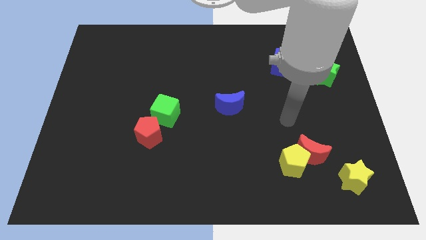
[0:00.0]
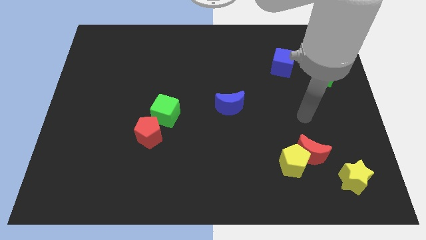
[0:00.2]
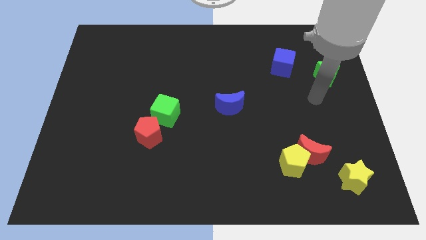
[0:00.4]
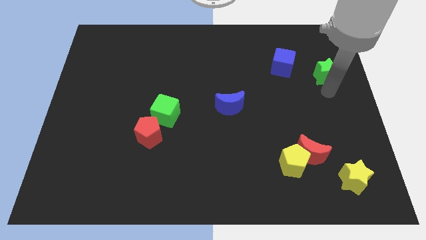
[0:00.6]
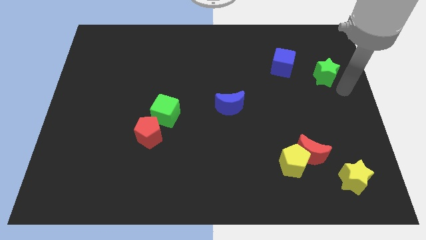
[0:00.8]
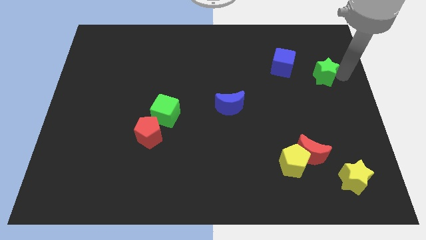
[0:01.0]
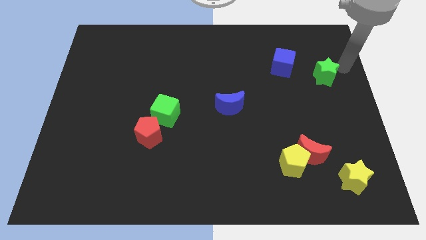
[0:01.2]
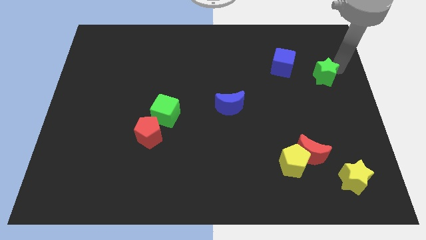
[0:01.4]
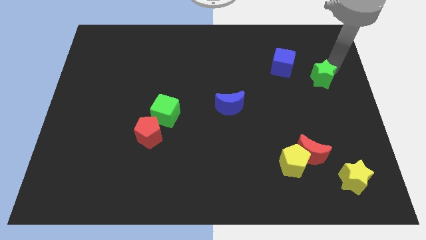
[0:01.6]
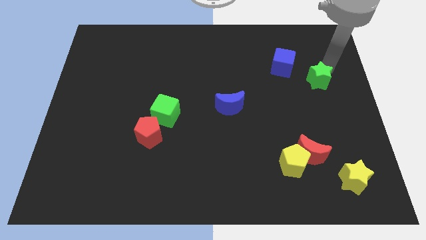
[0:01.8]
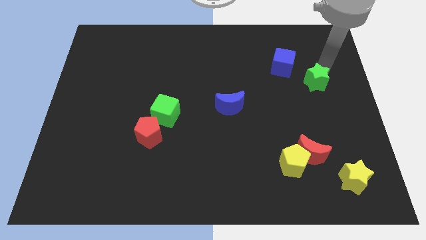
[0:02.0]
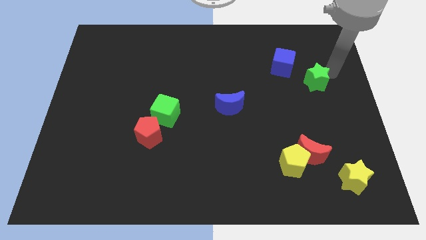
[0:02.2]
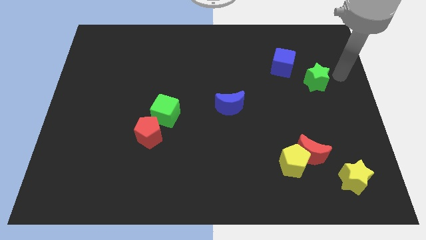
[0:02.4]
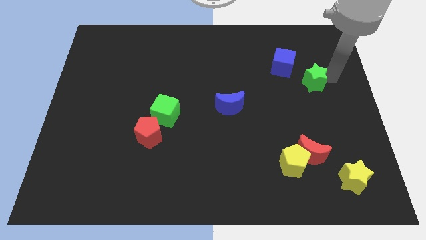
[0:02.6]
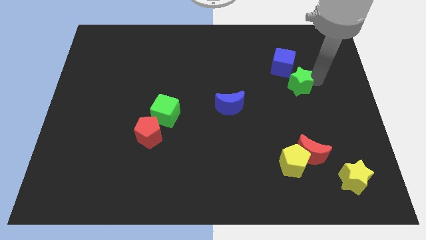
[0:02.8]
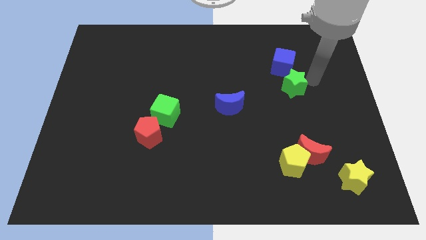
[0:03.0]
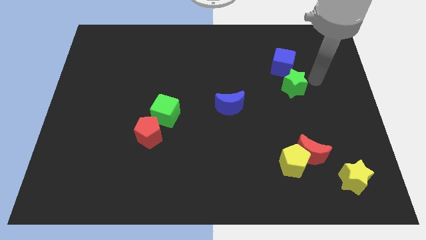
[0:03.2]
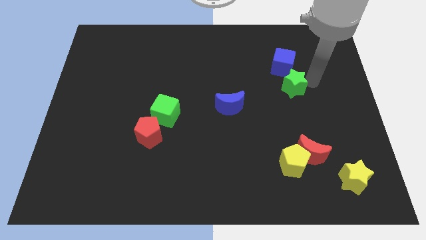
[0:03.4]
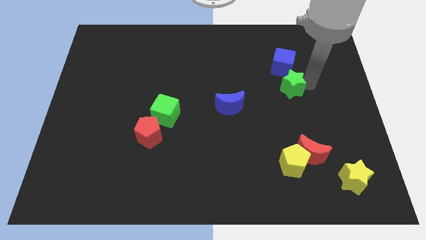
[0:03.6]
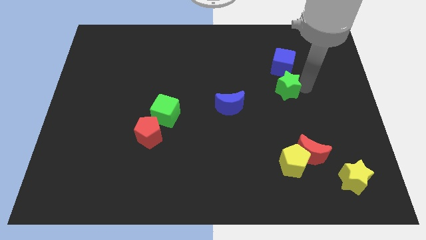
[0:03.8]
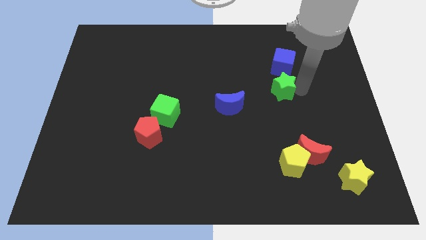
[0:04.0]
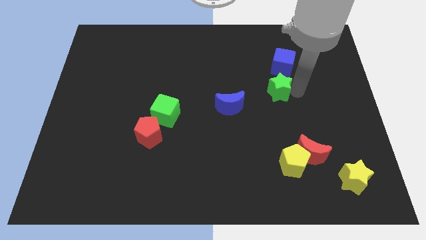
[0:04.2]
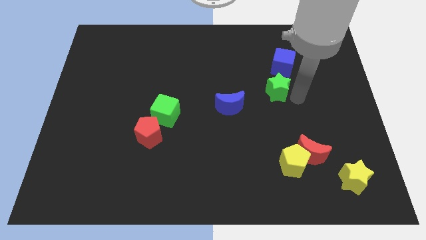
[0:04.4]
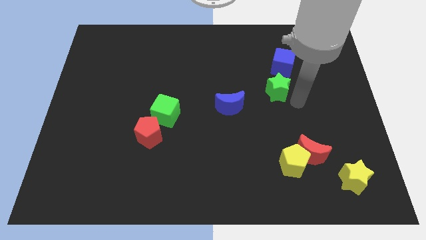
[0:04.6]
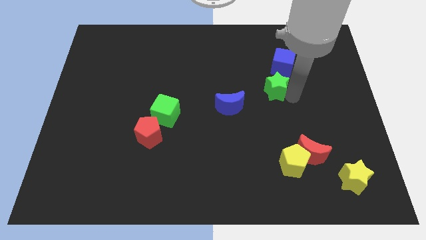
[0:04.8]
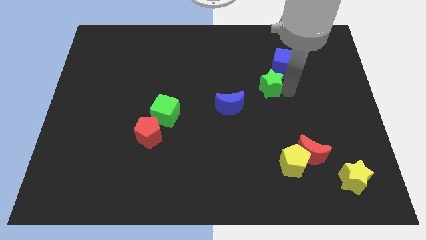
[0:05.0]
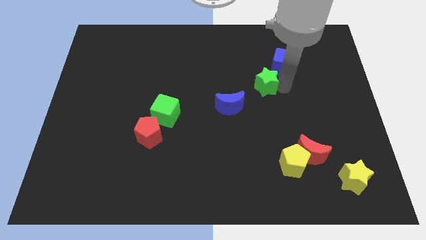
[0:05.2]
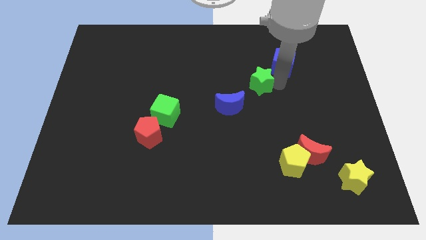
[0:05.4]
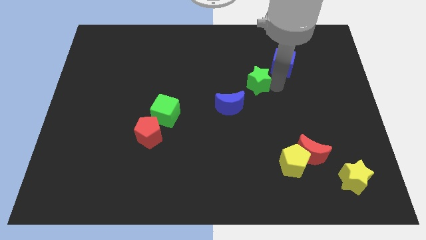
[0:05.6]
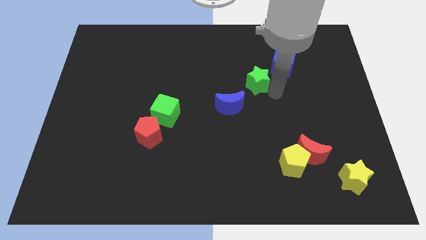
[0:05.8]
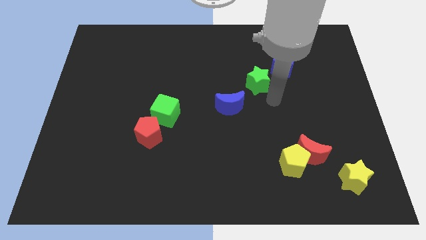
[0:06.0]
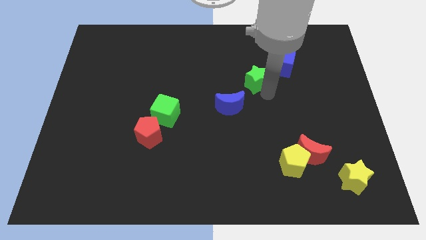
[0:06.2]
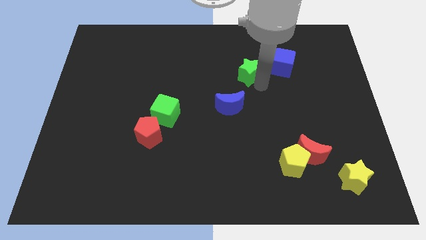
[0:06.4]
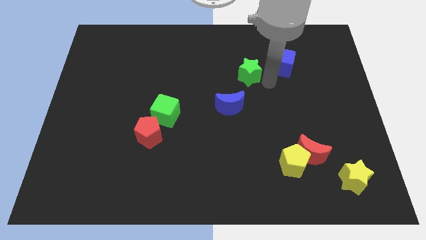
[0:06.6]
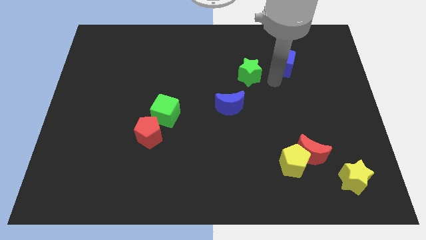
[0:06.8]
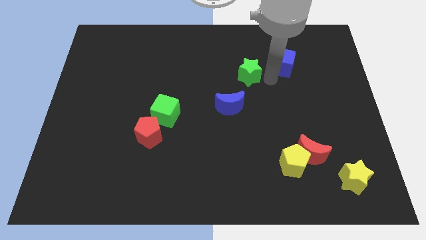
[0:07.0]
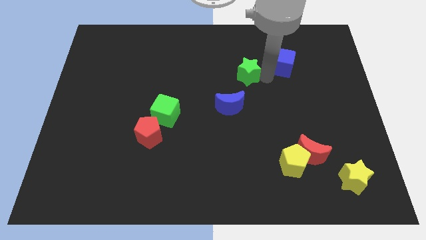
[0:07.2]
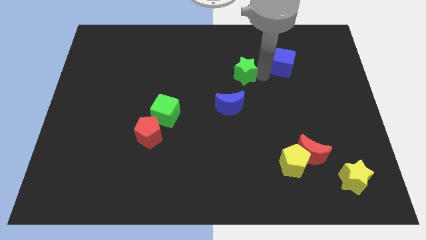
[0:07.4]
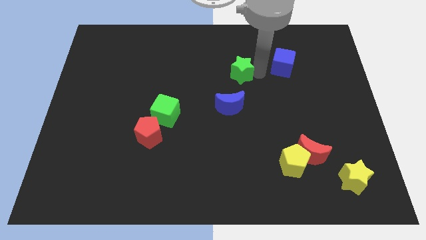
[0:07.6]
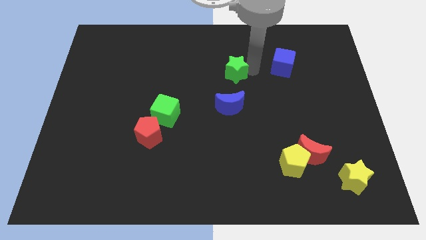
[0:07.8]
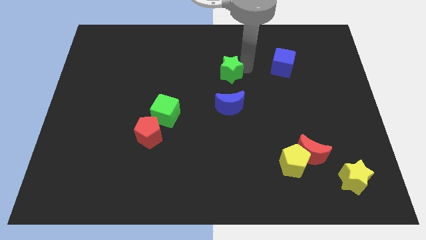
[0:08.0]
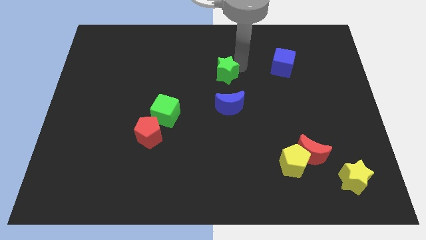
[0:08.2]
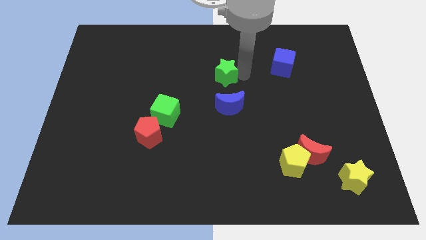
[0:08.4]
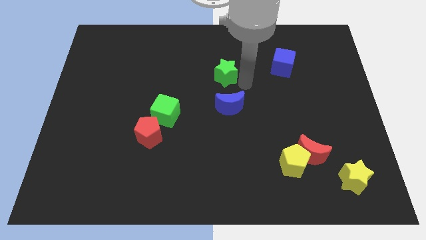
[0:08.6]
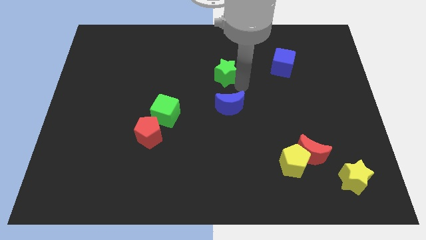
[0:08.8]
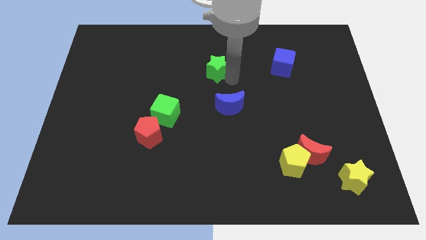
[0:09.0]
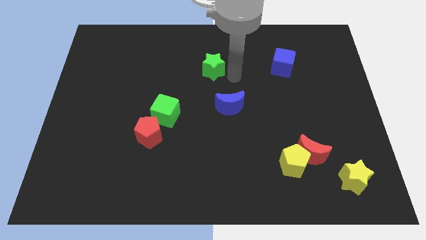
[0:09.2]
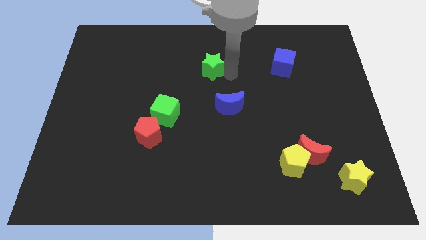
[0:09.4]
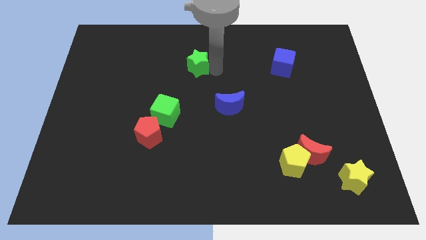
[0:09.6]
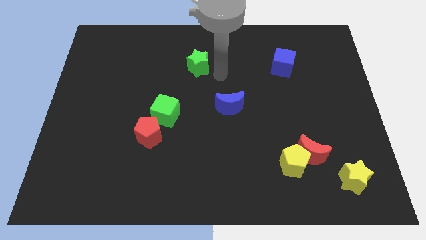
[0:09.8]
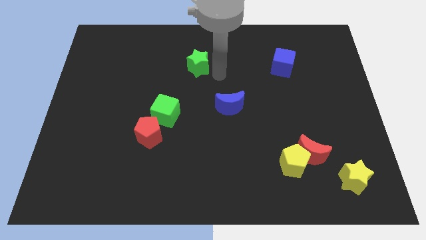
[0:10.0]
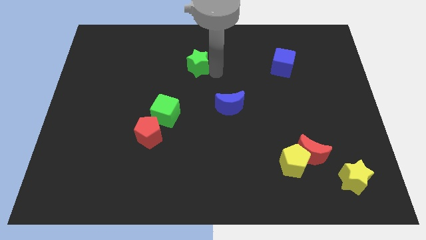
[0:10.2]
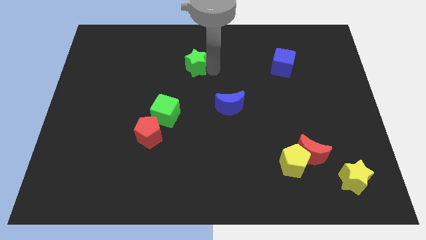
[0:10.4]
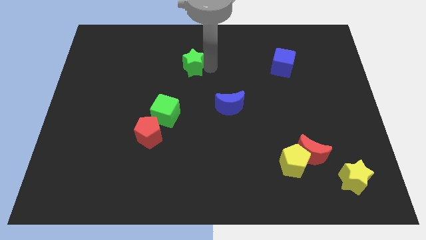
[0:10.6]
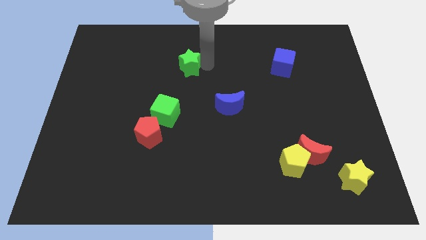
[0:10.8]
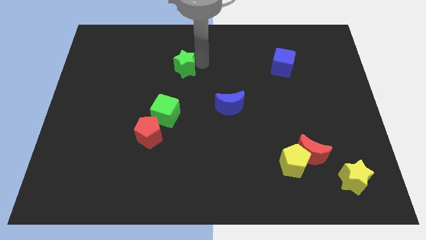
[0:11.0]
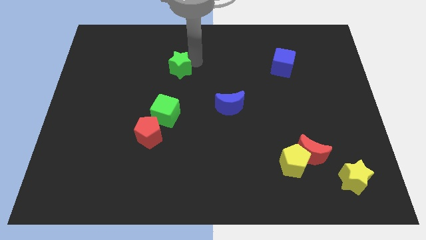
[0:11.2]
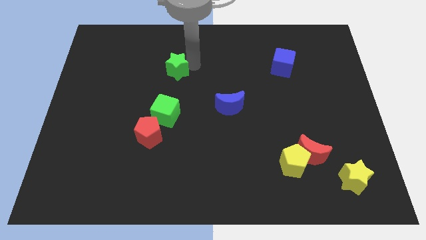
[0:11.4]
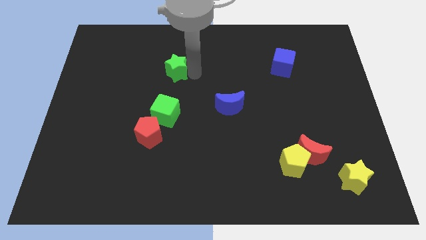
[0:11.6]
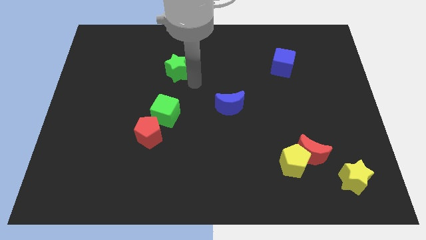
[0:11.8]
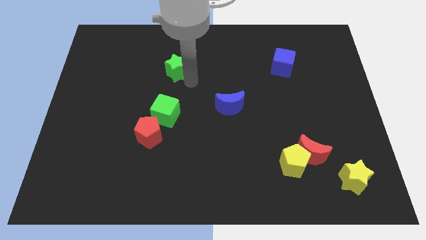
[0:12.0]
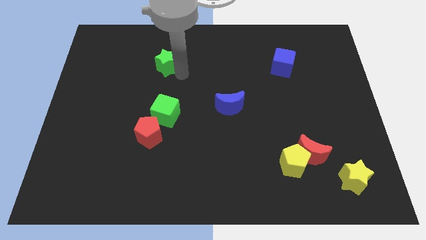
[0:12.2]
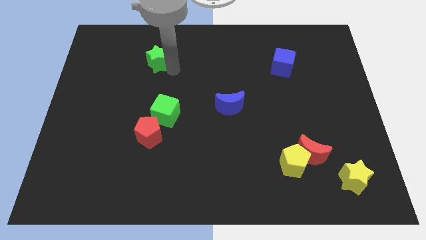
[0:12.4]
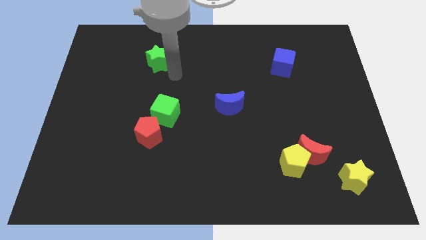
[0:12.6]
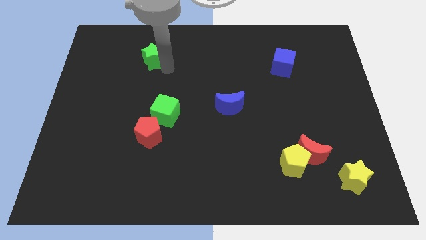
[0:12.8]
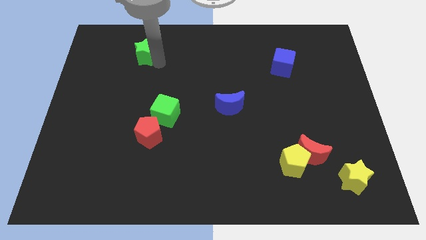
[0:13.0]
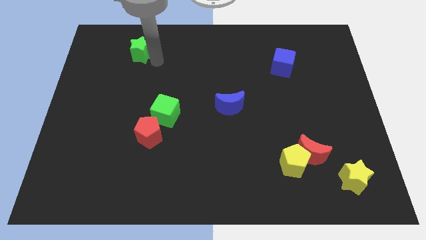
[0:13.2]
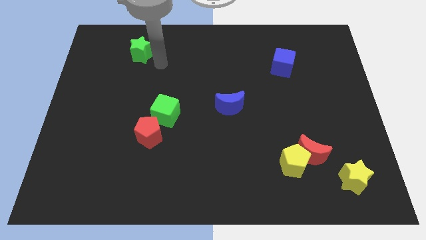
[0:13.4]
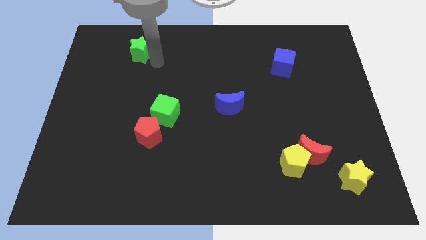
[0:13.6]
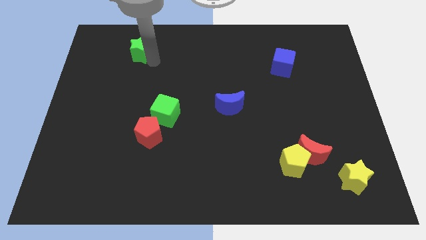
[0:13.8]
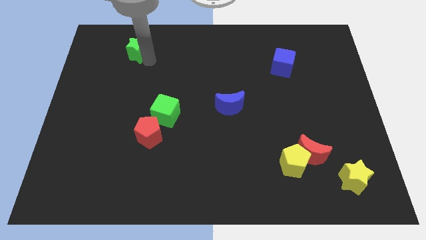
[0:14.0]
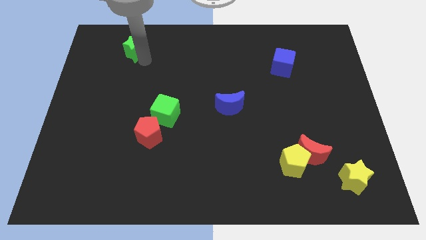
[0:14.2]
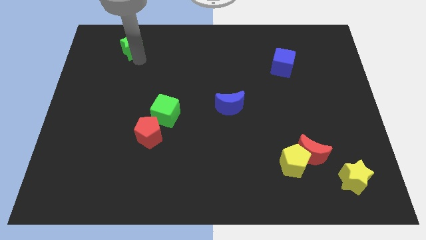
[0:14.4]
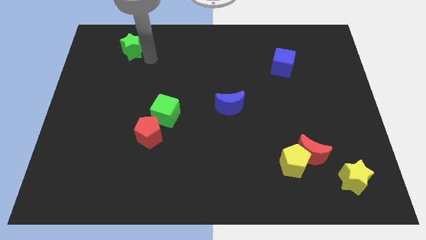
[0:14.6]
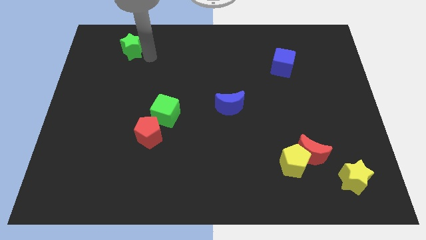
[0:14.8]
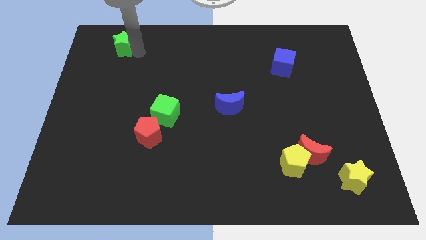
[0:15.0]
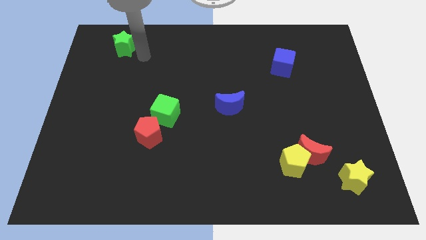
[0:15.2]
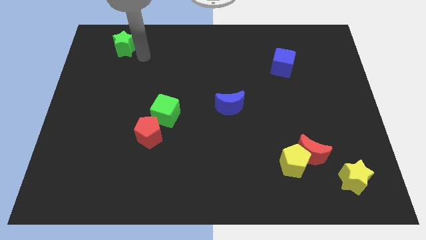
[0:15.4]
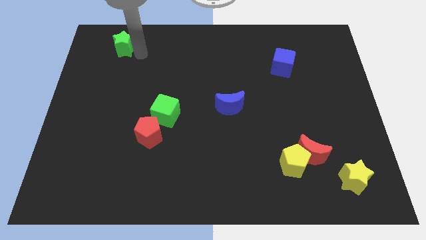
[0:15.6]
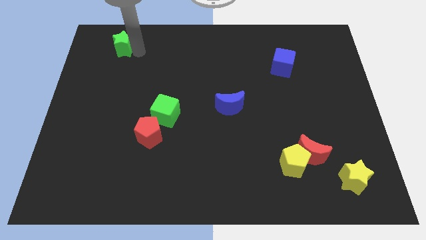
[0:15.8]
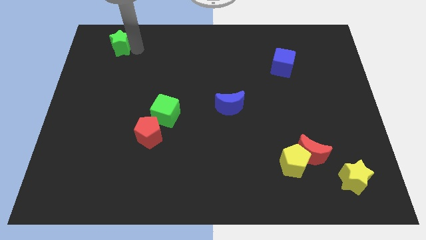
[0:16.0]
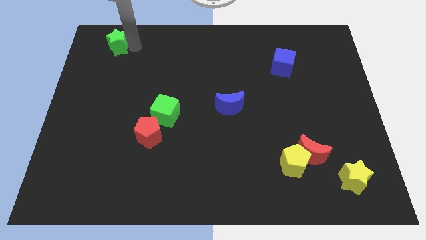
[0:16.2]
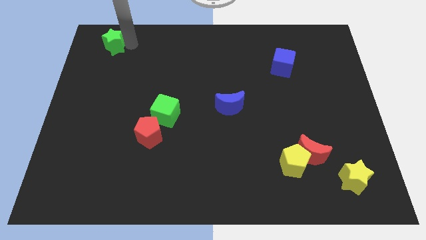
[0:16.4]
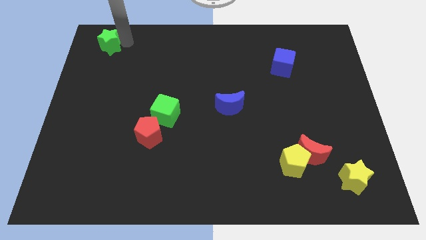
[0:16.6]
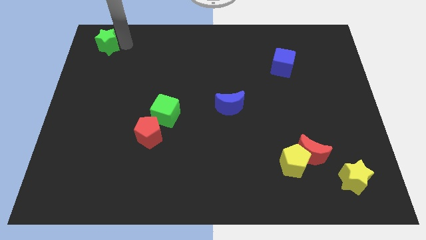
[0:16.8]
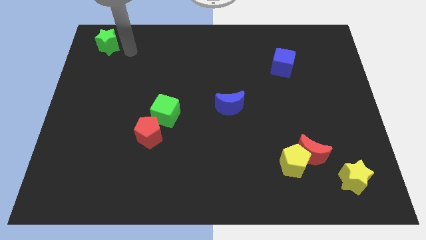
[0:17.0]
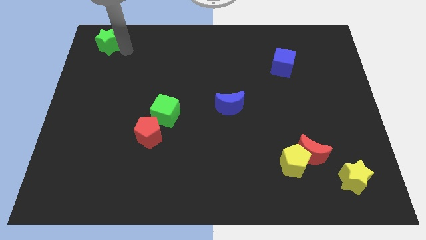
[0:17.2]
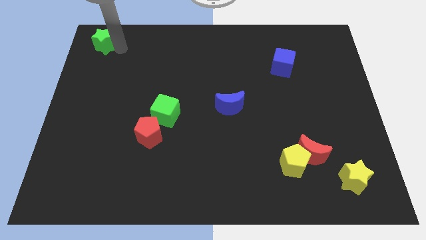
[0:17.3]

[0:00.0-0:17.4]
put the green star to the top left
